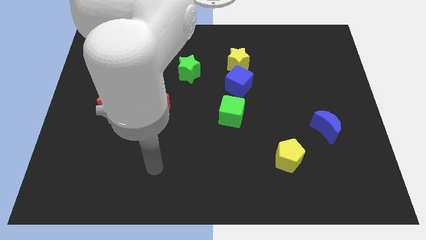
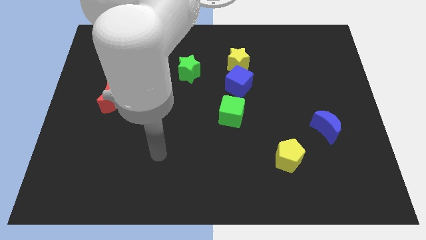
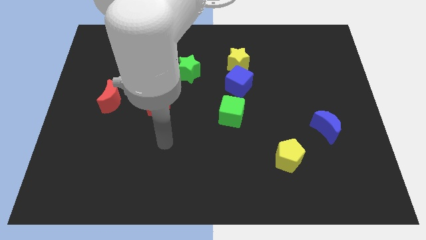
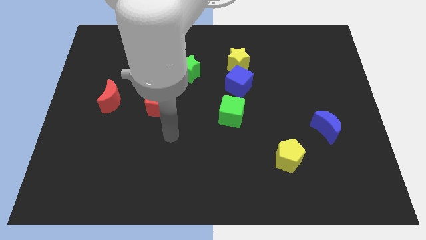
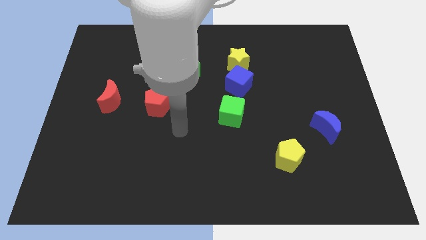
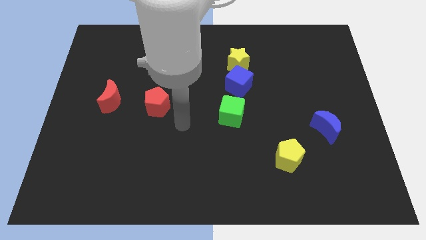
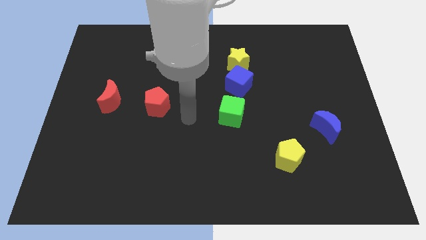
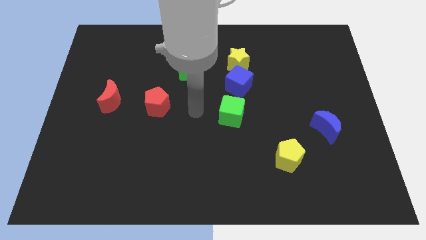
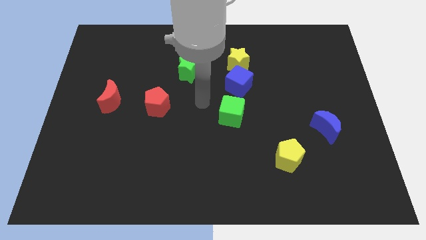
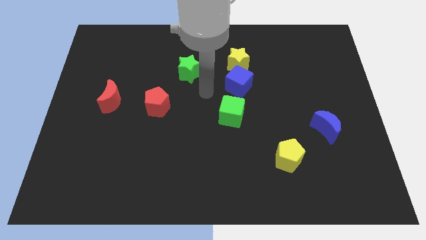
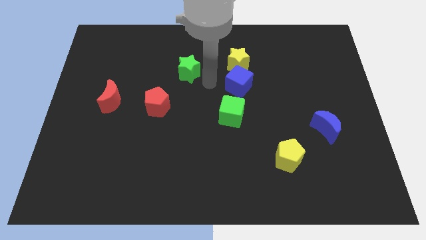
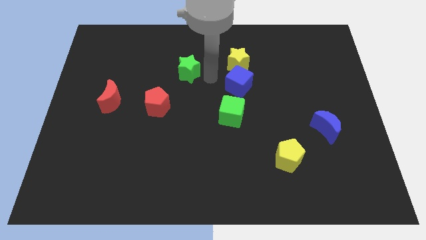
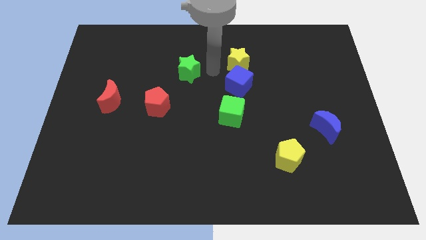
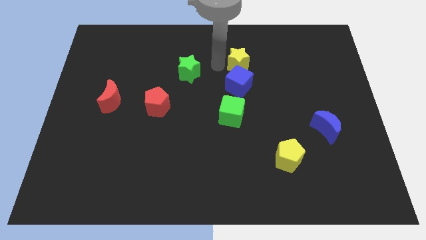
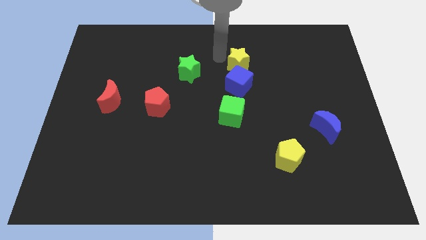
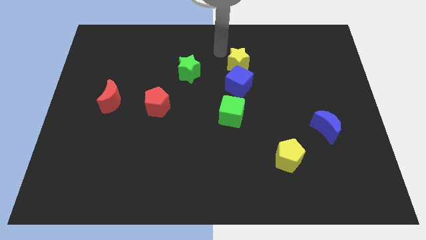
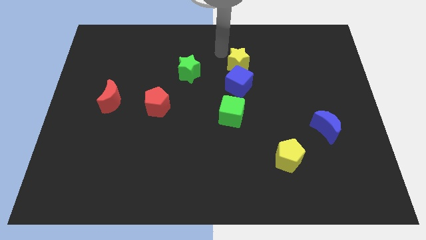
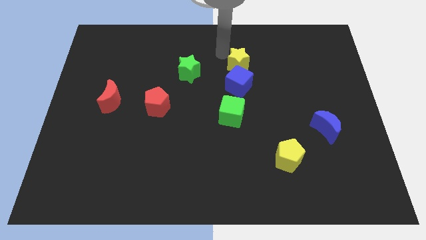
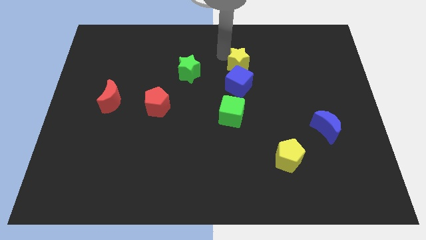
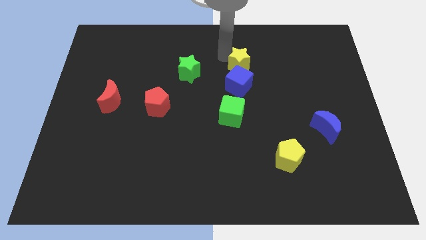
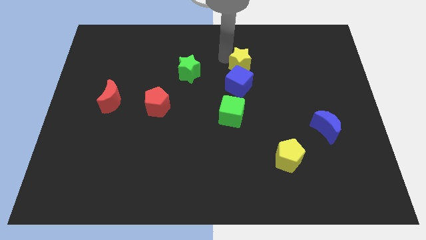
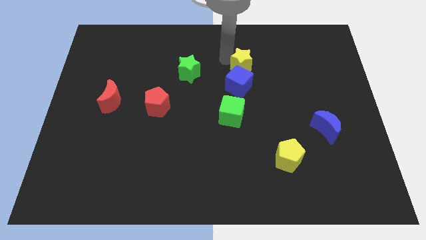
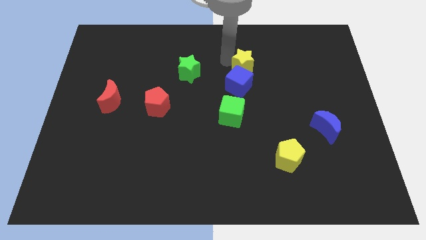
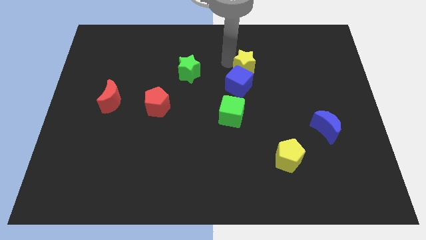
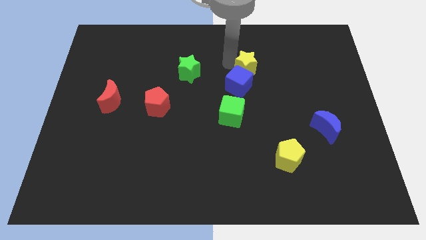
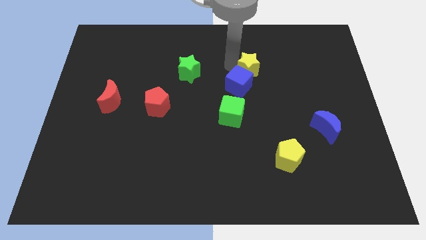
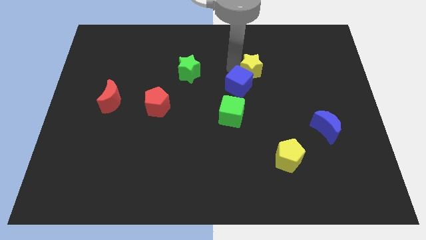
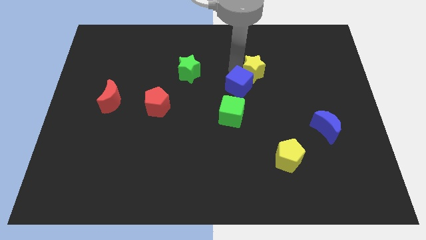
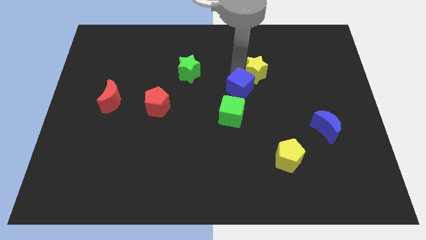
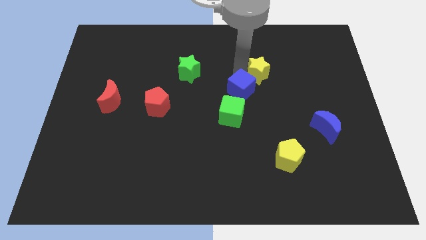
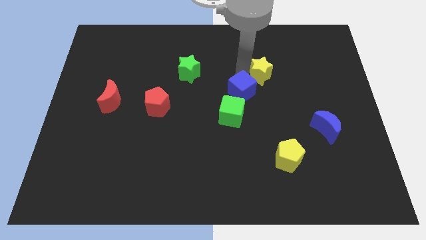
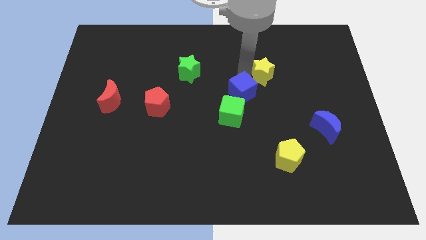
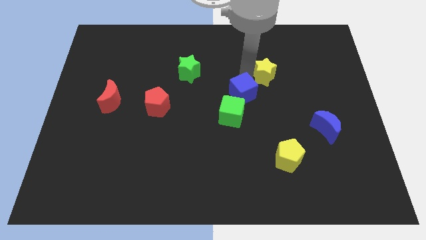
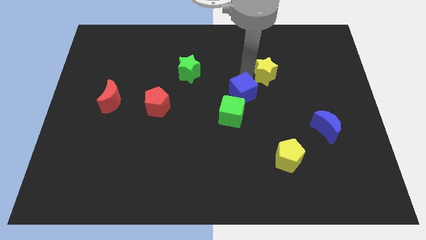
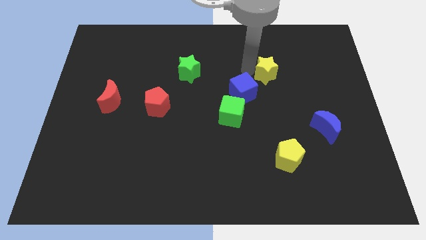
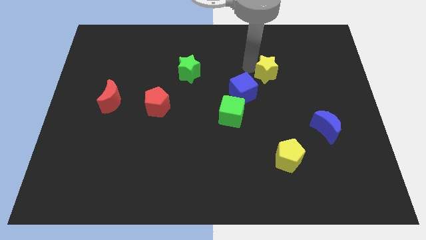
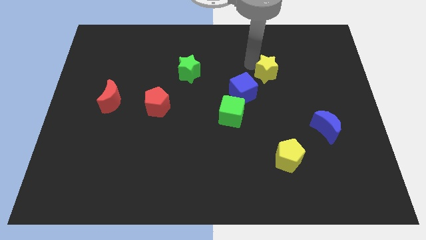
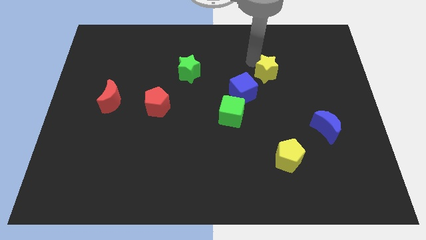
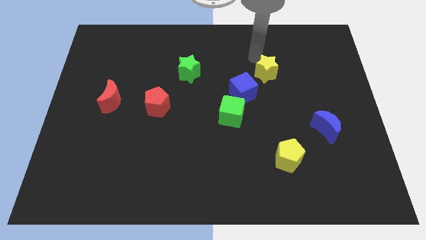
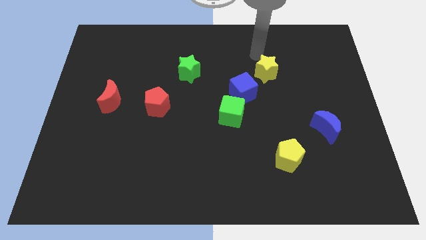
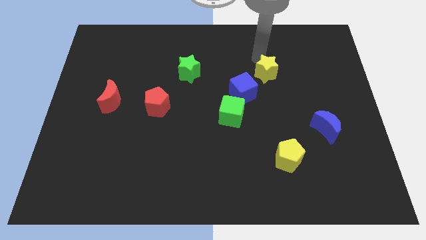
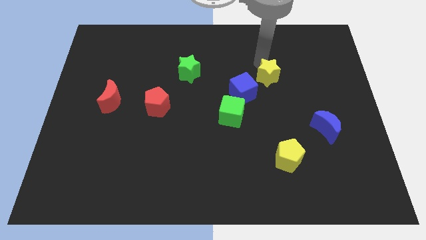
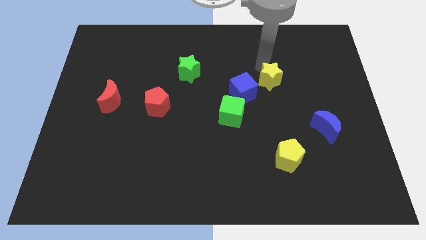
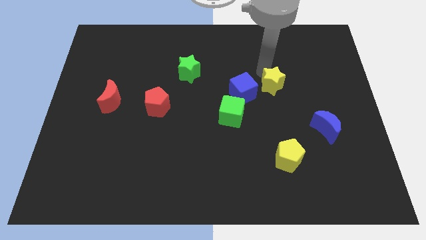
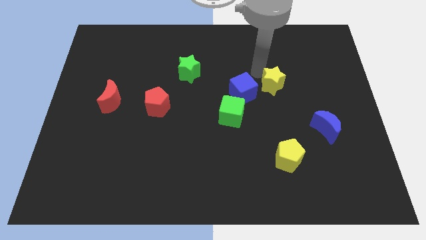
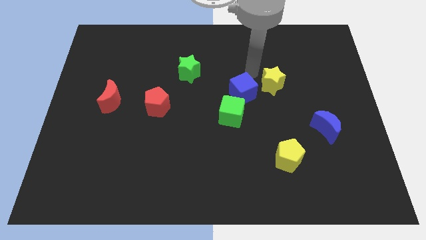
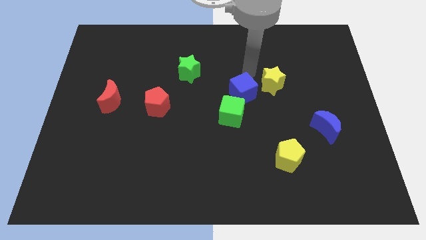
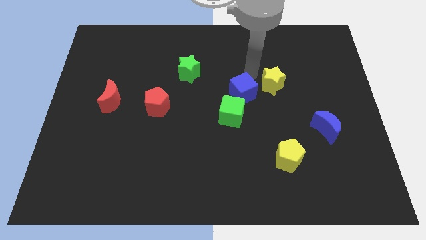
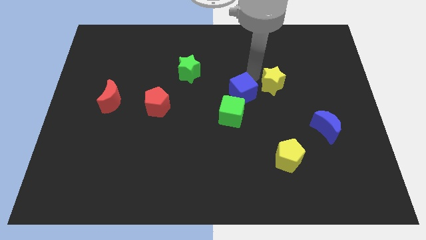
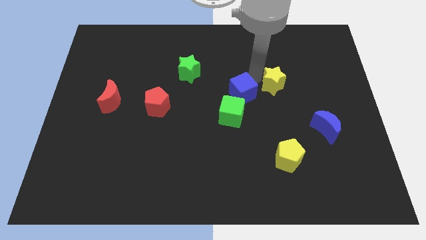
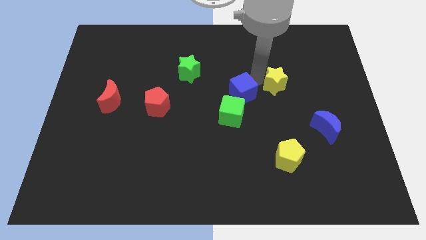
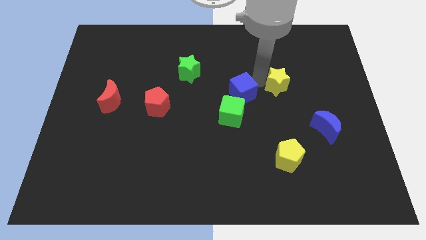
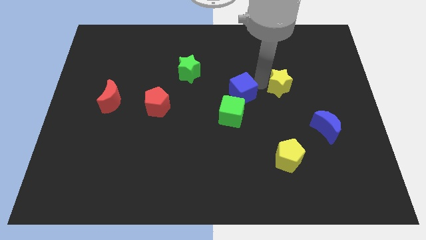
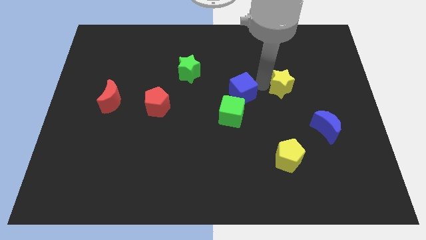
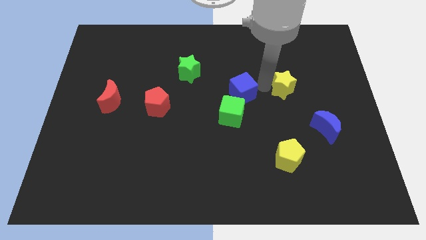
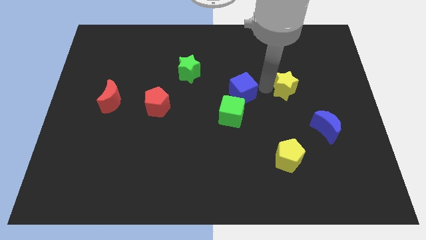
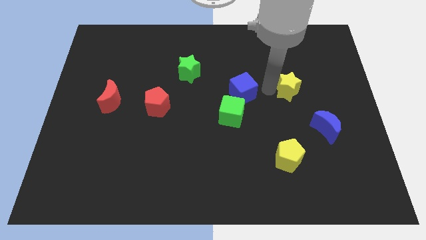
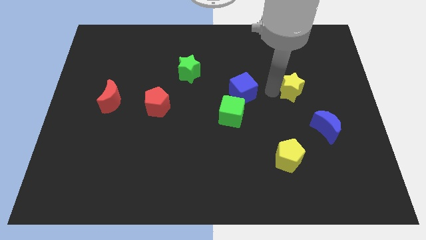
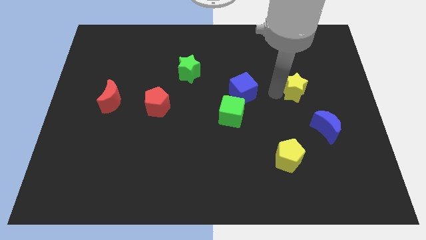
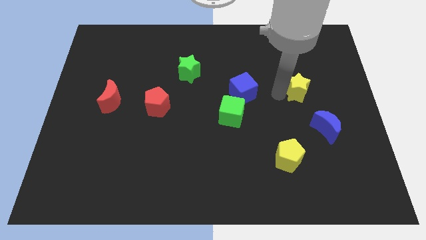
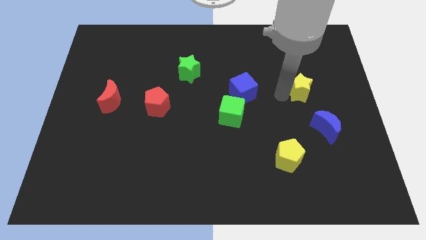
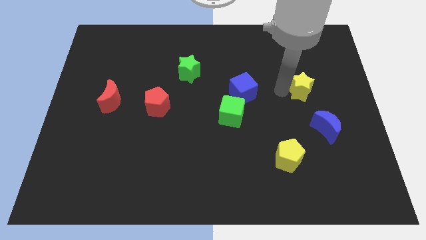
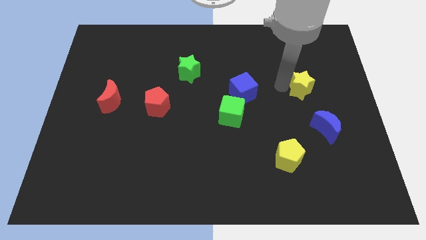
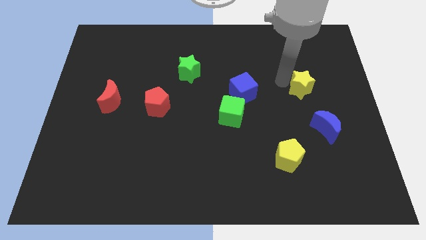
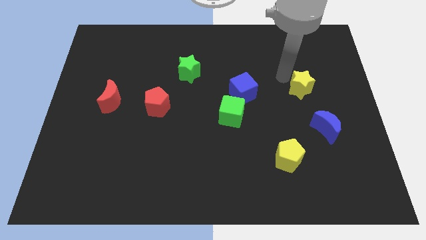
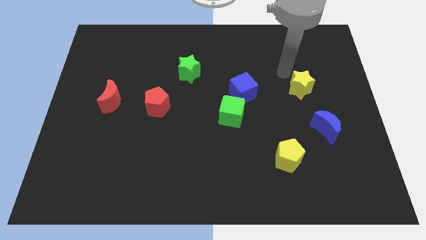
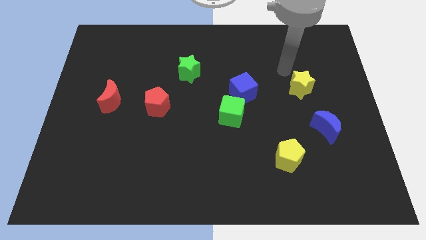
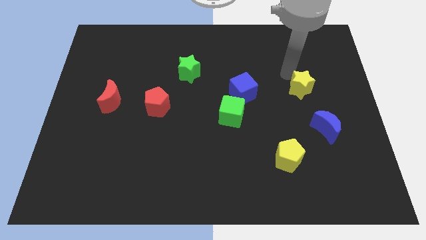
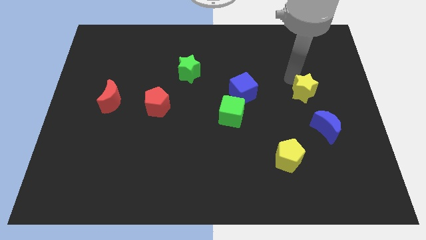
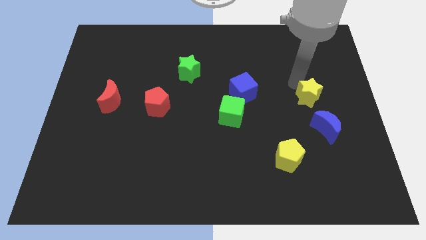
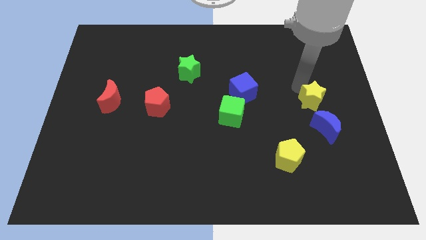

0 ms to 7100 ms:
move the yellow star down and right

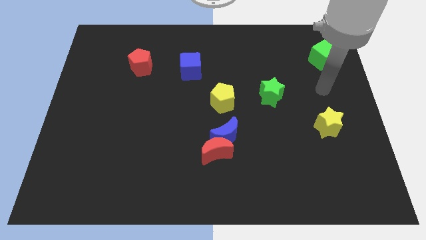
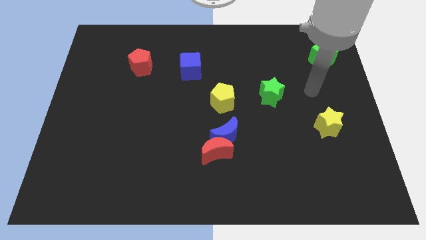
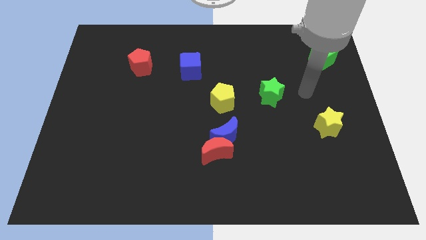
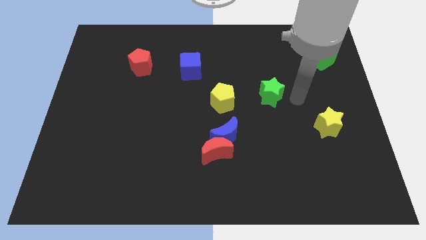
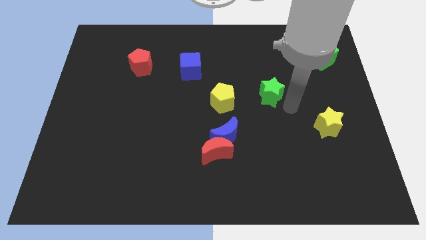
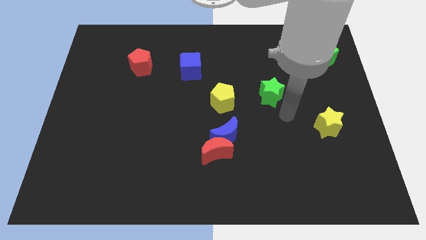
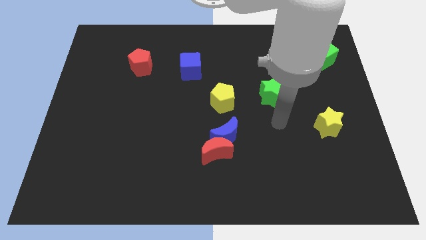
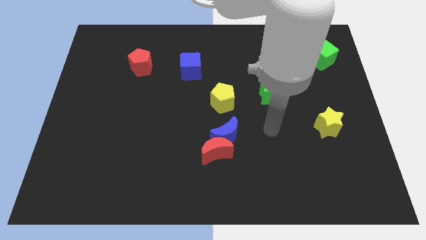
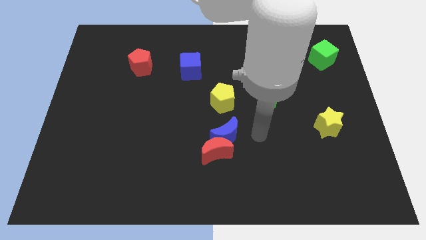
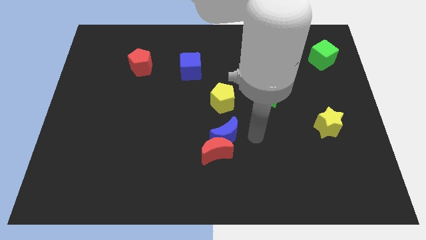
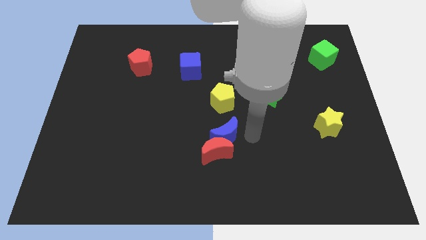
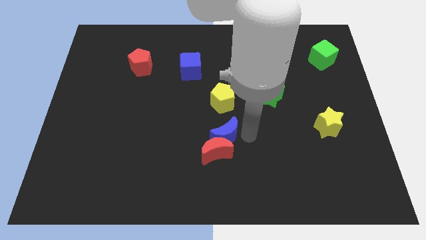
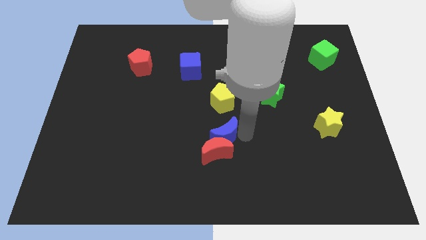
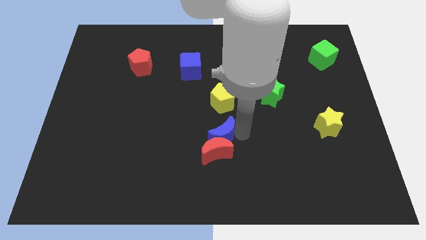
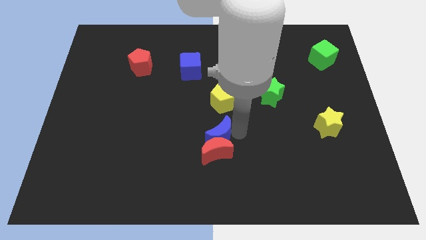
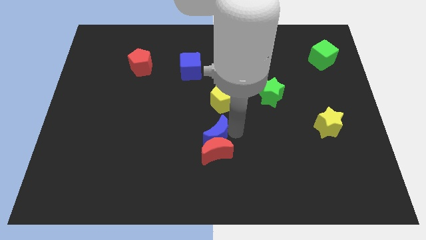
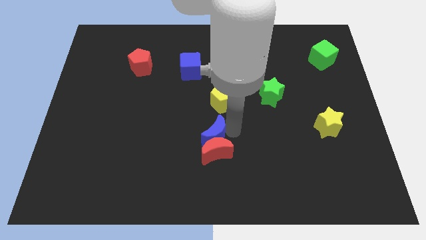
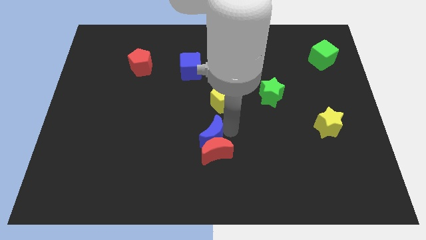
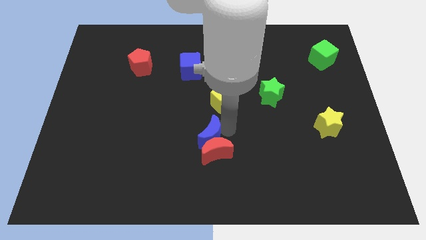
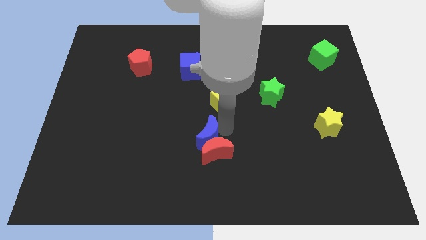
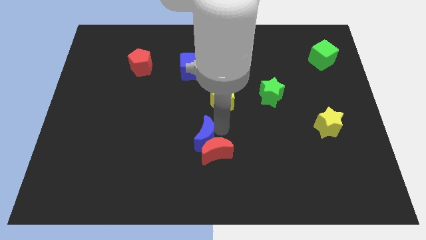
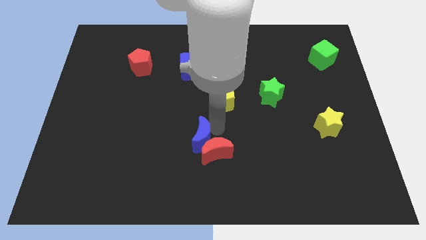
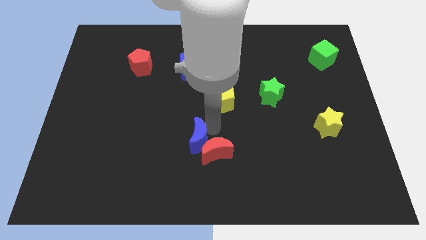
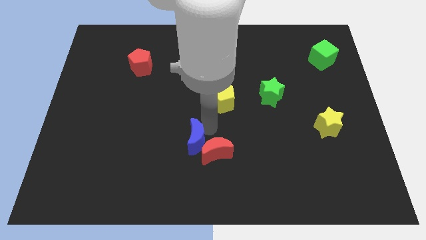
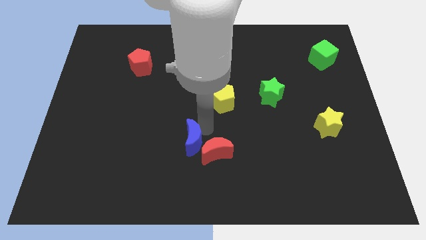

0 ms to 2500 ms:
push the blue moon to the left slightly
